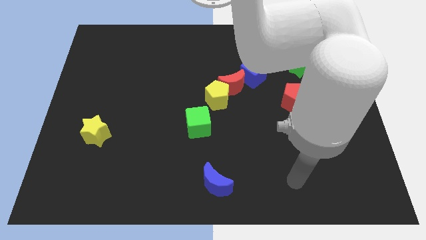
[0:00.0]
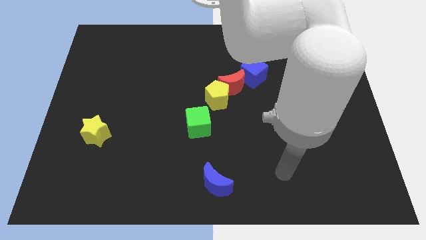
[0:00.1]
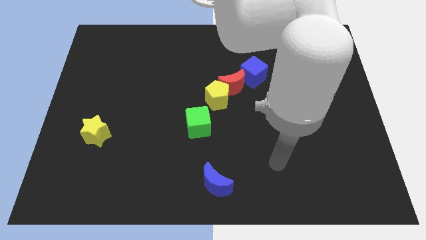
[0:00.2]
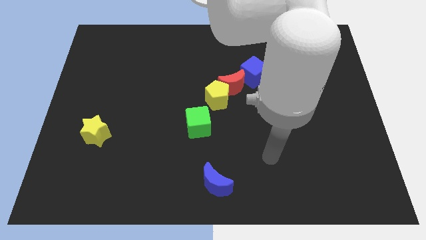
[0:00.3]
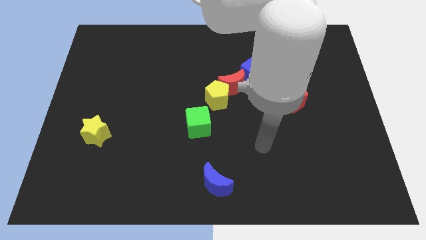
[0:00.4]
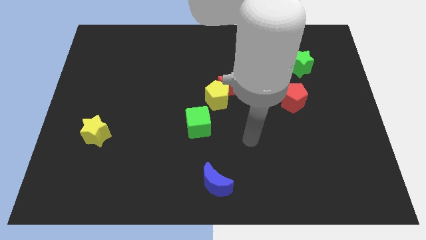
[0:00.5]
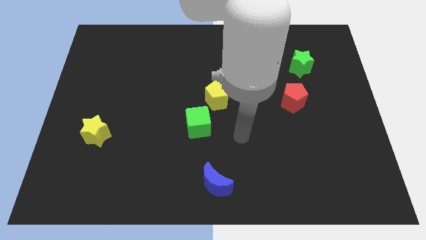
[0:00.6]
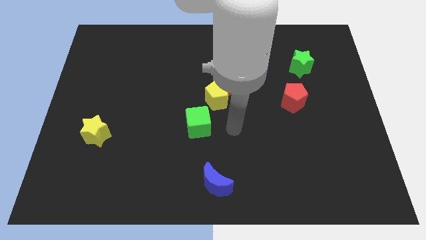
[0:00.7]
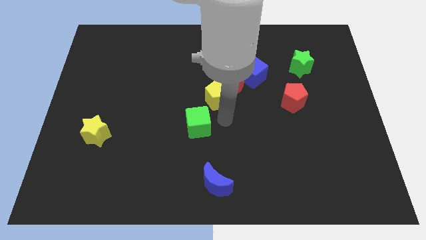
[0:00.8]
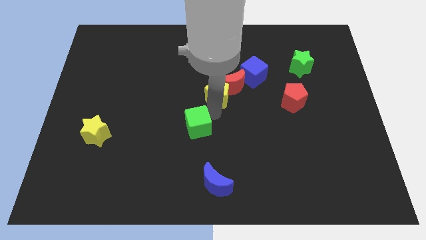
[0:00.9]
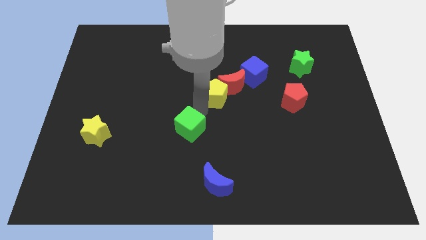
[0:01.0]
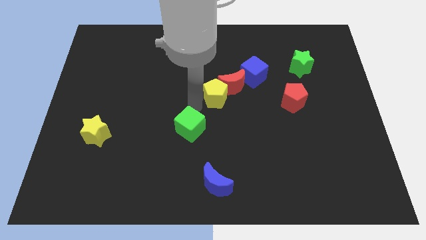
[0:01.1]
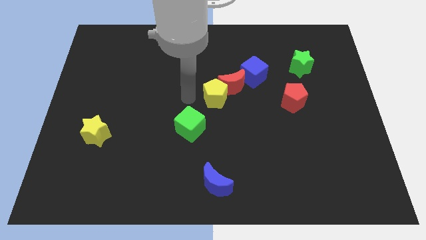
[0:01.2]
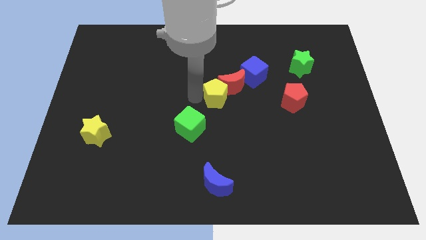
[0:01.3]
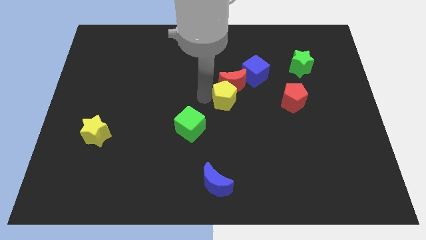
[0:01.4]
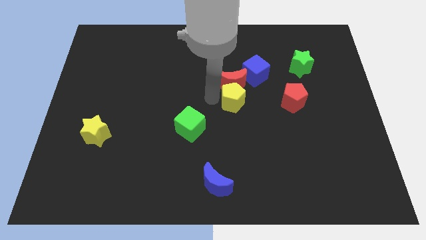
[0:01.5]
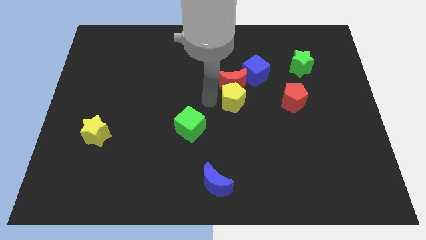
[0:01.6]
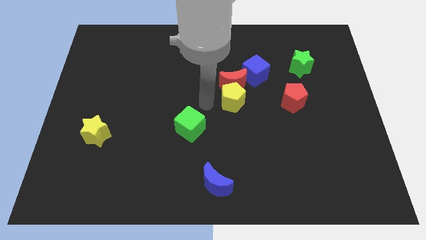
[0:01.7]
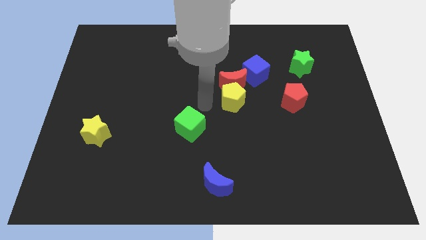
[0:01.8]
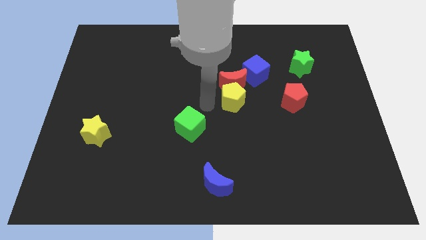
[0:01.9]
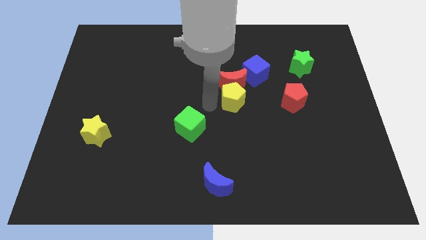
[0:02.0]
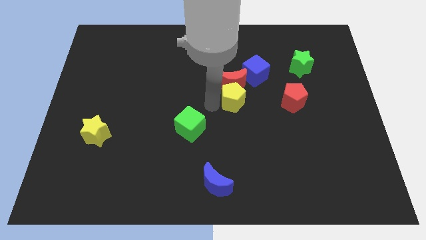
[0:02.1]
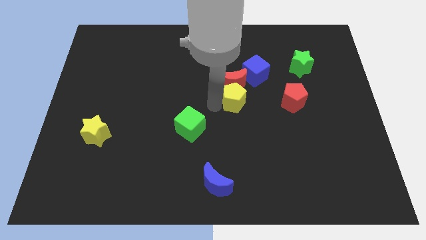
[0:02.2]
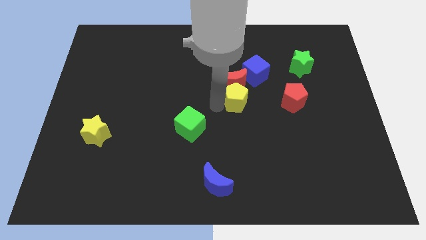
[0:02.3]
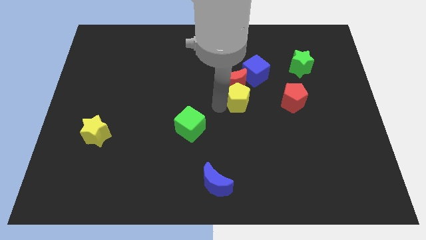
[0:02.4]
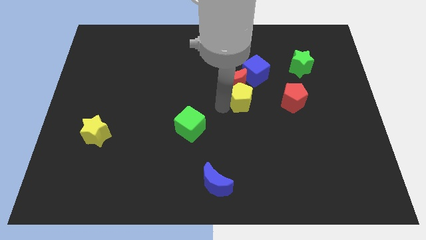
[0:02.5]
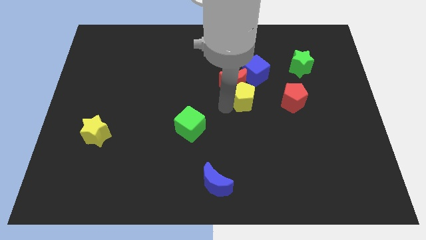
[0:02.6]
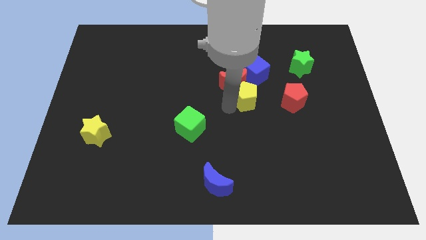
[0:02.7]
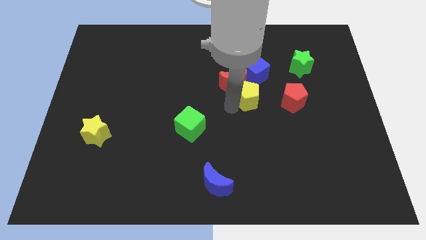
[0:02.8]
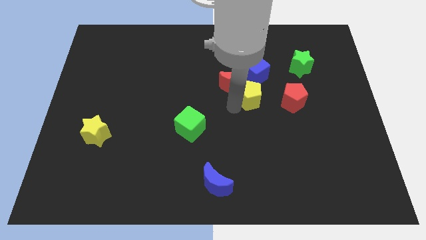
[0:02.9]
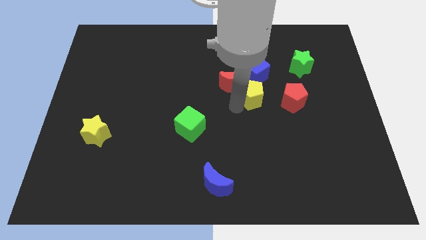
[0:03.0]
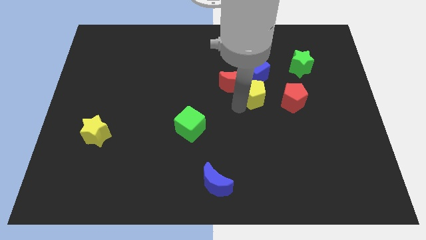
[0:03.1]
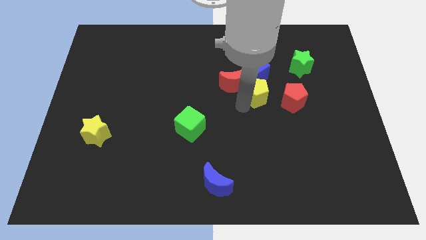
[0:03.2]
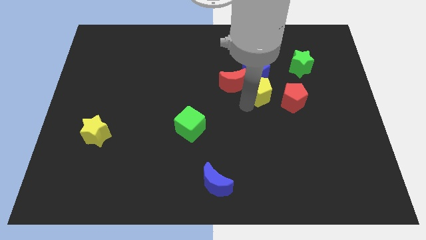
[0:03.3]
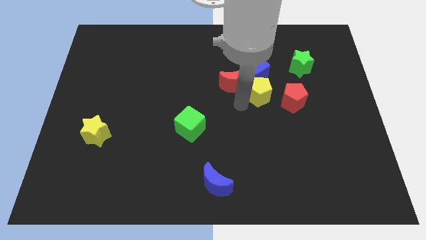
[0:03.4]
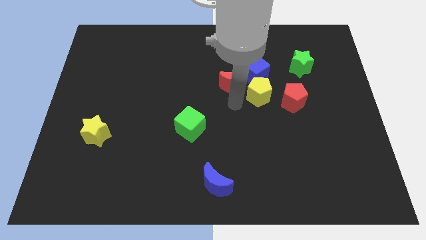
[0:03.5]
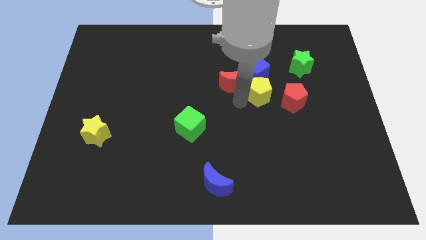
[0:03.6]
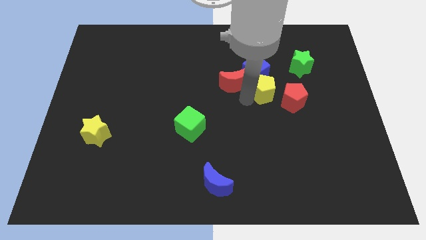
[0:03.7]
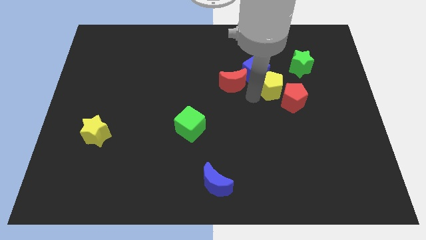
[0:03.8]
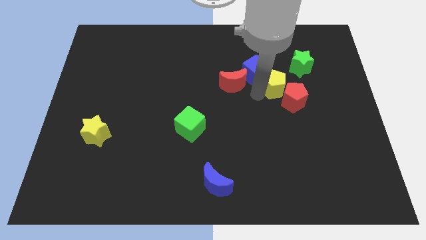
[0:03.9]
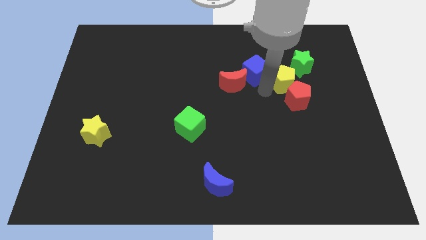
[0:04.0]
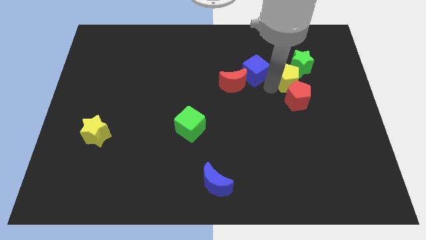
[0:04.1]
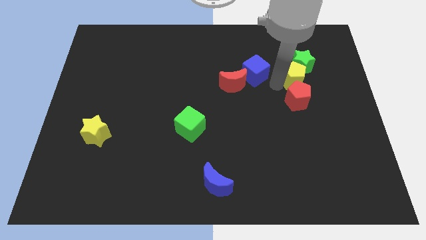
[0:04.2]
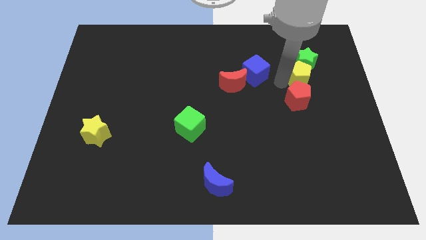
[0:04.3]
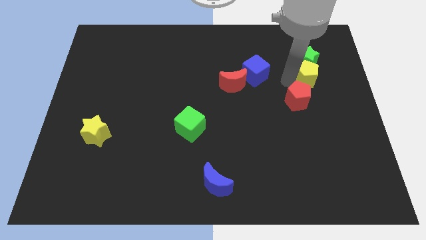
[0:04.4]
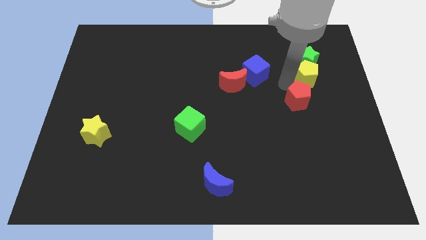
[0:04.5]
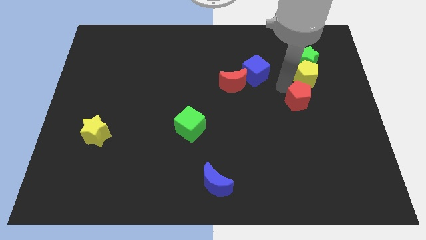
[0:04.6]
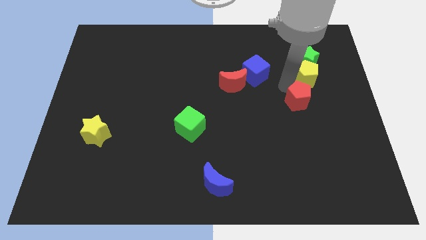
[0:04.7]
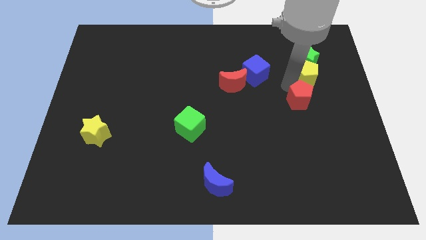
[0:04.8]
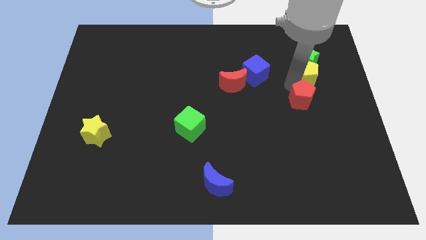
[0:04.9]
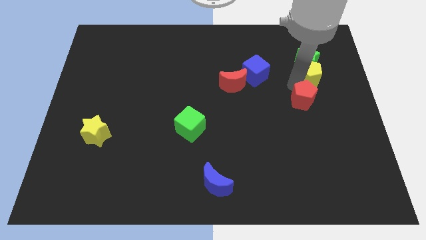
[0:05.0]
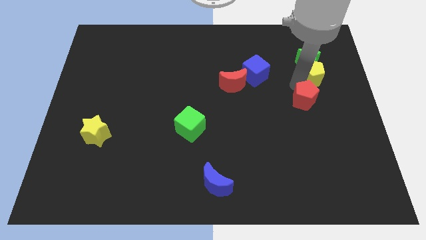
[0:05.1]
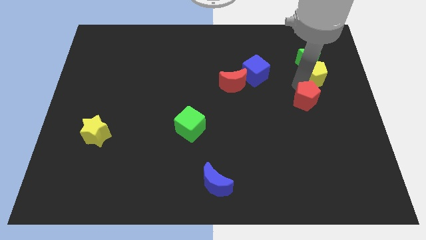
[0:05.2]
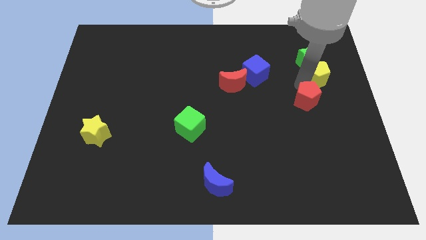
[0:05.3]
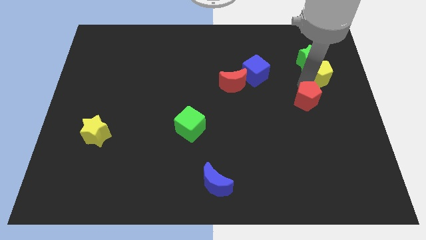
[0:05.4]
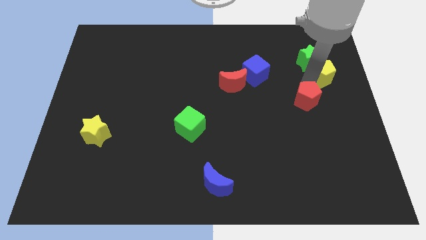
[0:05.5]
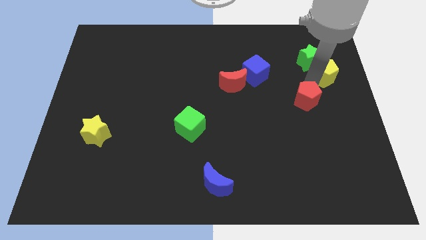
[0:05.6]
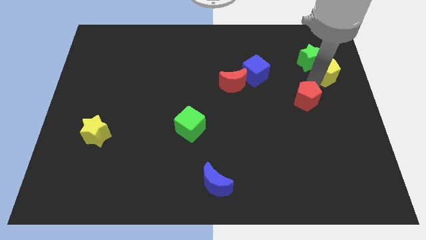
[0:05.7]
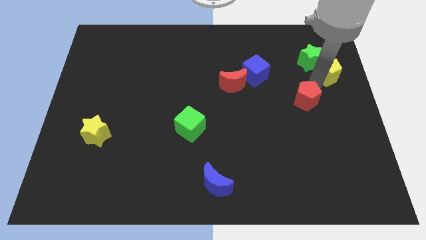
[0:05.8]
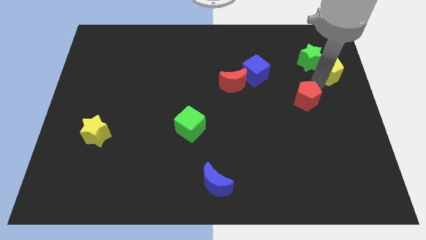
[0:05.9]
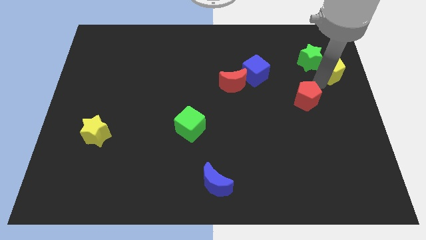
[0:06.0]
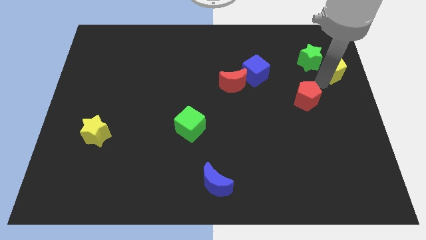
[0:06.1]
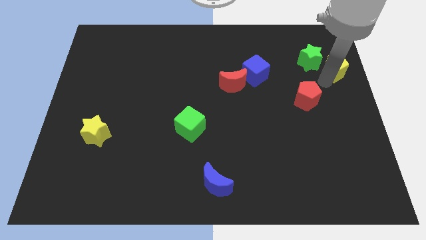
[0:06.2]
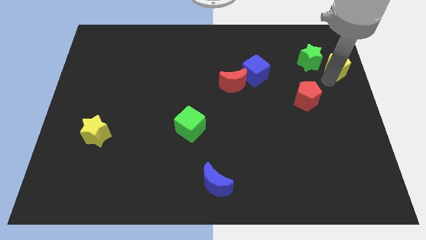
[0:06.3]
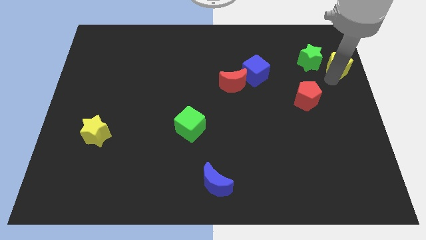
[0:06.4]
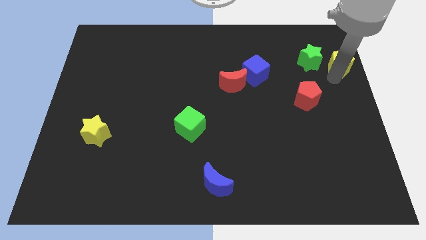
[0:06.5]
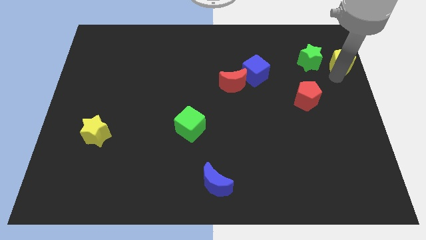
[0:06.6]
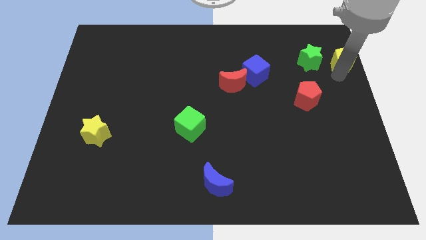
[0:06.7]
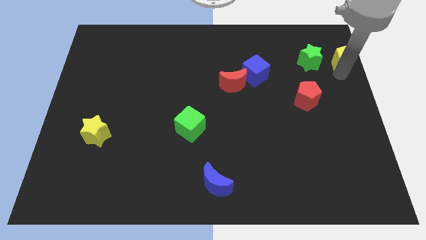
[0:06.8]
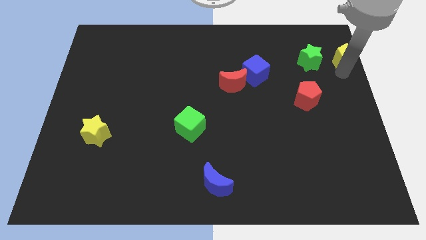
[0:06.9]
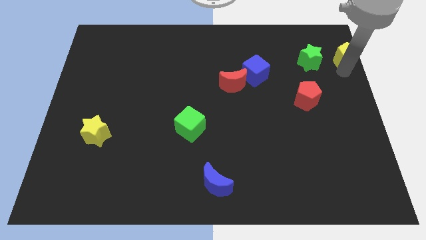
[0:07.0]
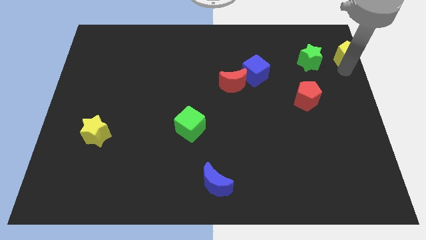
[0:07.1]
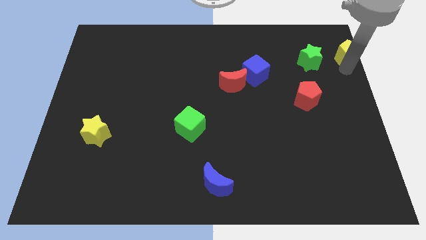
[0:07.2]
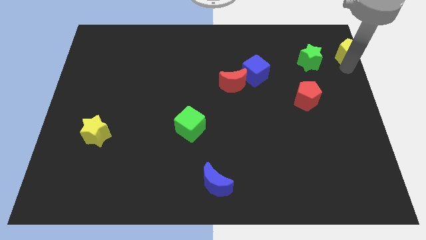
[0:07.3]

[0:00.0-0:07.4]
move the yellow pentagon to the top right
